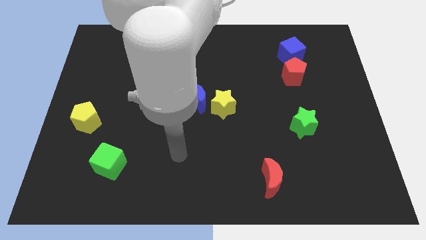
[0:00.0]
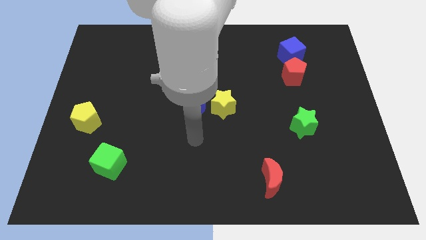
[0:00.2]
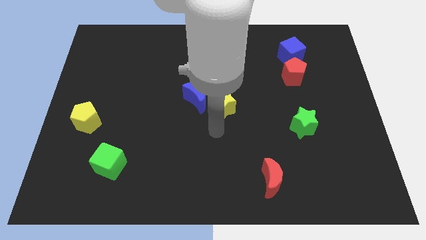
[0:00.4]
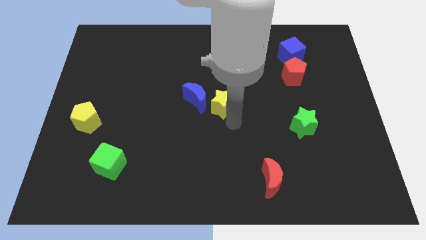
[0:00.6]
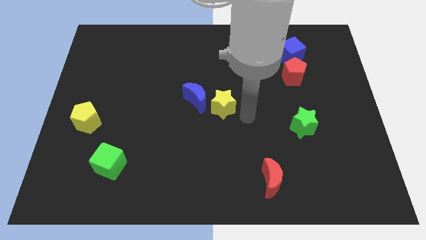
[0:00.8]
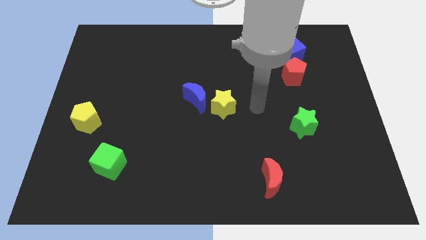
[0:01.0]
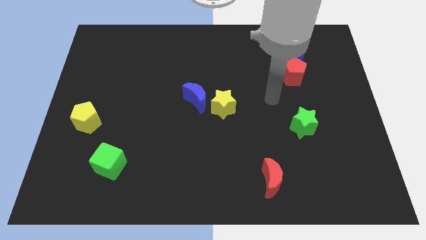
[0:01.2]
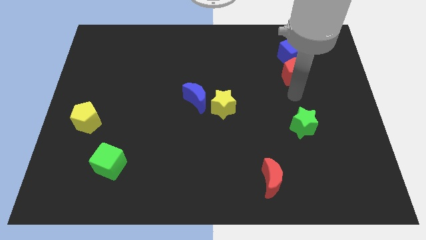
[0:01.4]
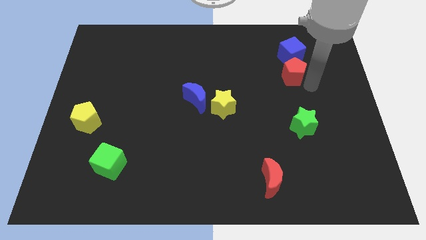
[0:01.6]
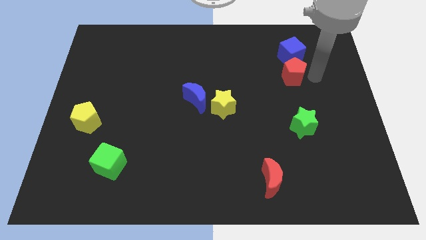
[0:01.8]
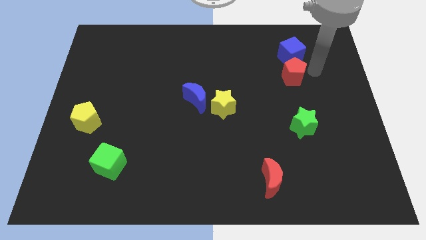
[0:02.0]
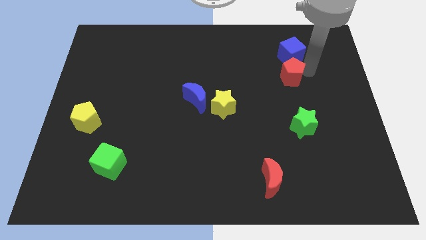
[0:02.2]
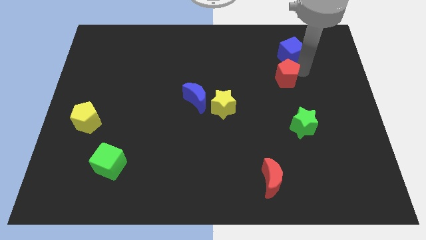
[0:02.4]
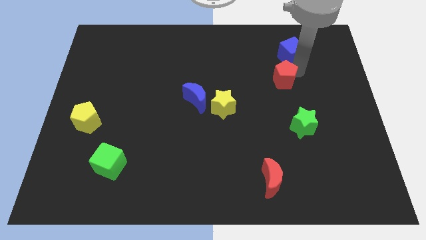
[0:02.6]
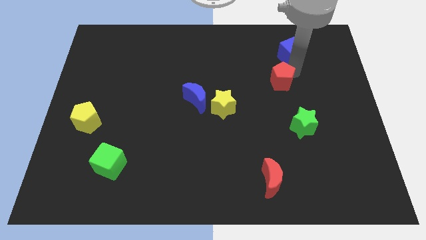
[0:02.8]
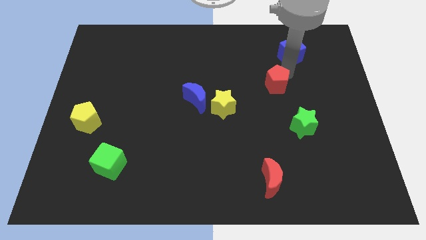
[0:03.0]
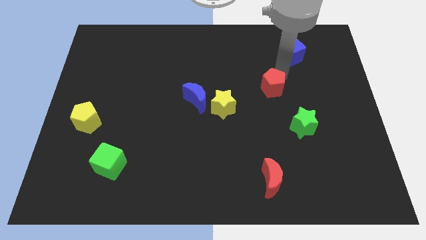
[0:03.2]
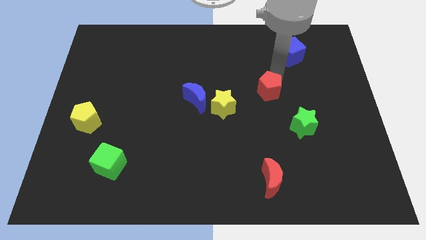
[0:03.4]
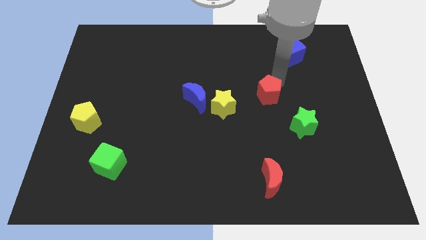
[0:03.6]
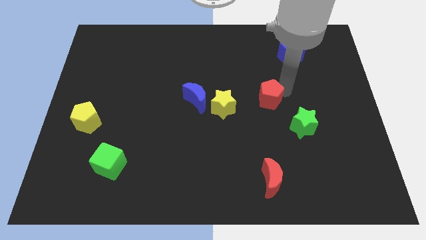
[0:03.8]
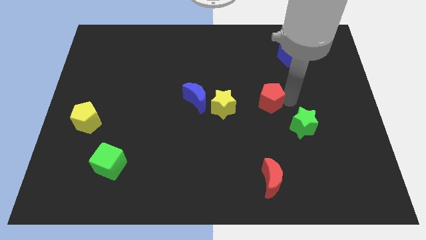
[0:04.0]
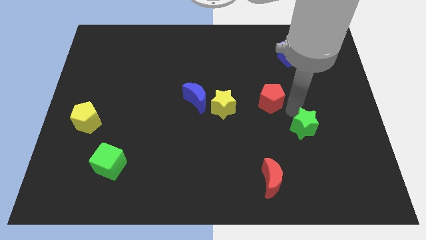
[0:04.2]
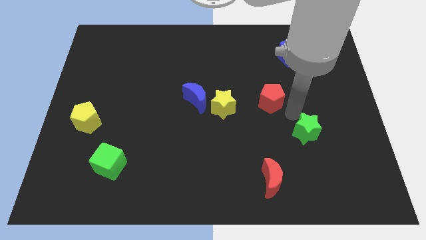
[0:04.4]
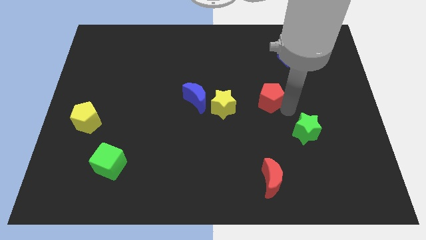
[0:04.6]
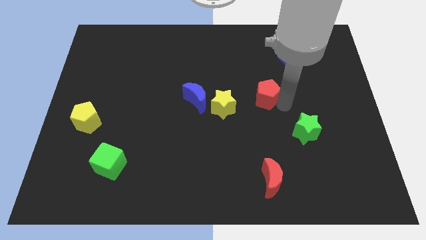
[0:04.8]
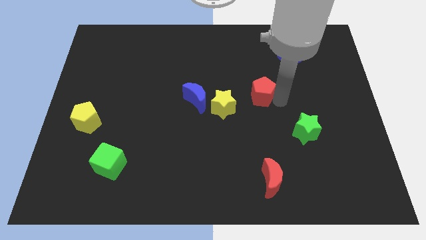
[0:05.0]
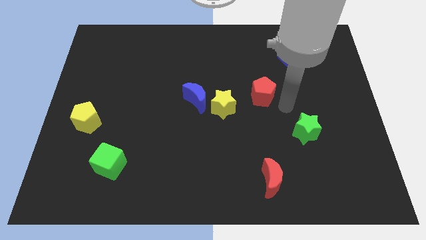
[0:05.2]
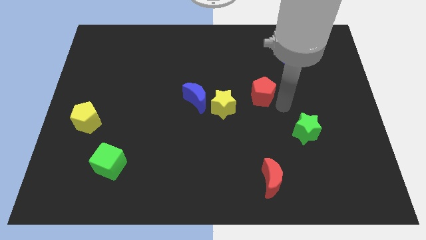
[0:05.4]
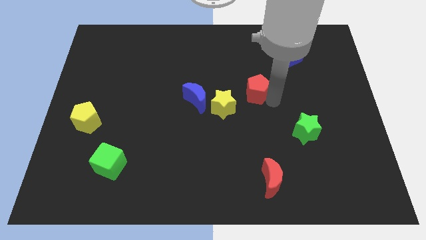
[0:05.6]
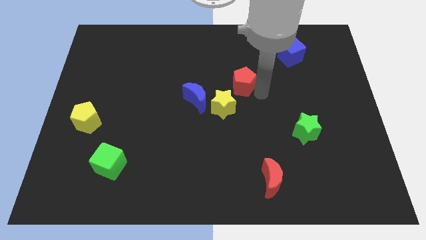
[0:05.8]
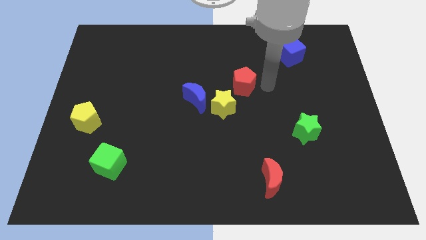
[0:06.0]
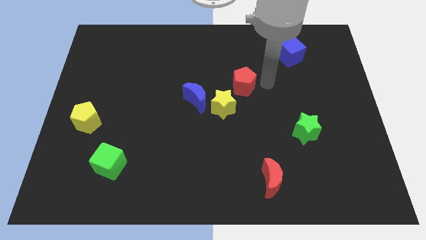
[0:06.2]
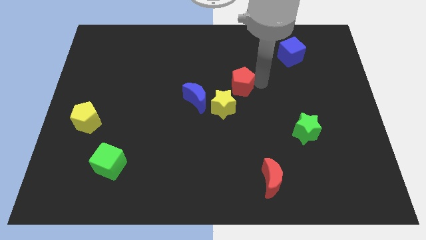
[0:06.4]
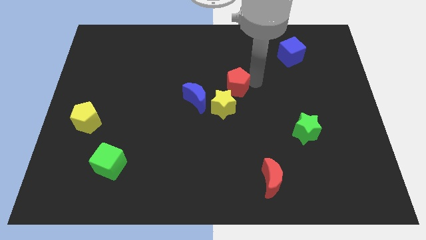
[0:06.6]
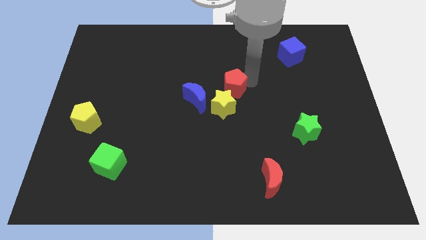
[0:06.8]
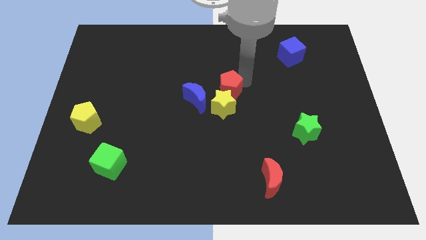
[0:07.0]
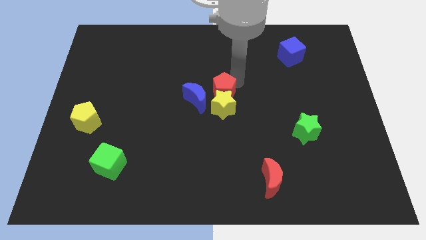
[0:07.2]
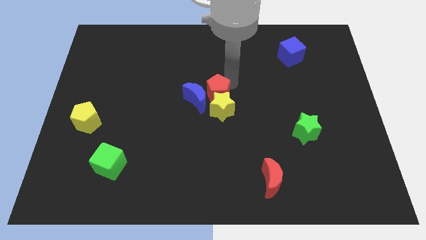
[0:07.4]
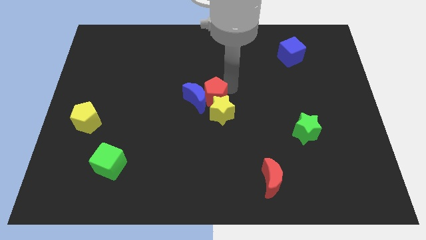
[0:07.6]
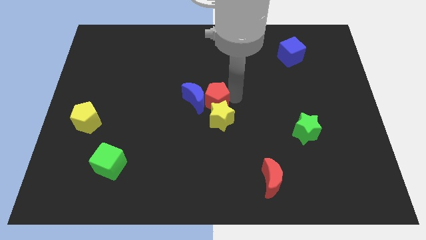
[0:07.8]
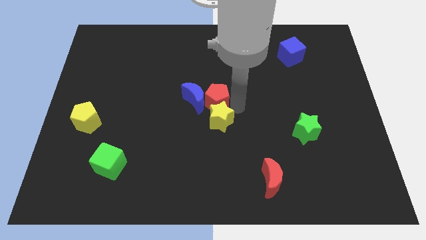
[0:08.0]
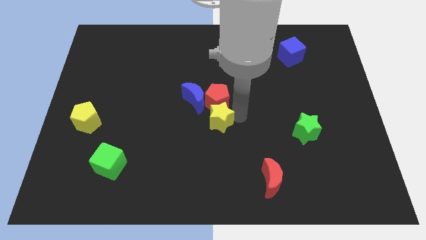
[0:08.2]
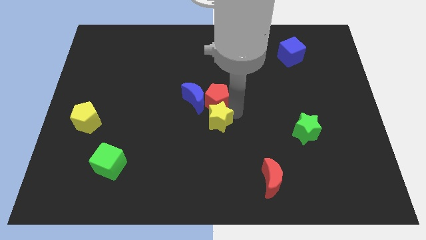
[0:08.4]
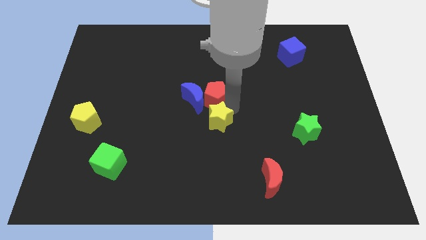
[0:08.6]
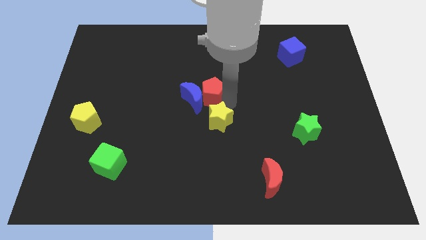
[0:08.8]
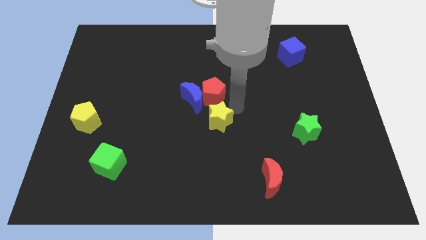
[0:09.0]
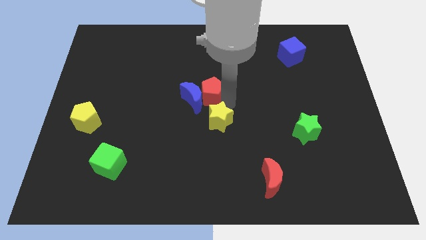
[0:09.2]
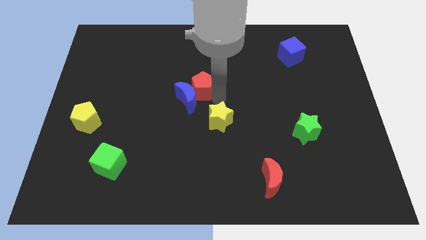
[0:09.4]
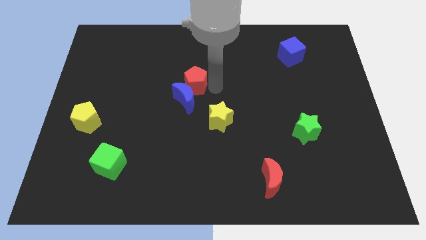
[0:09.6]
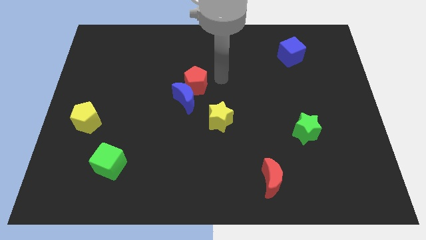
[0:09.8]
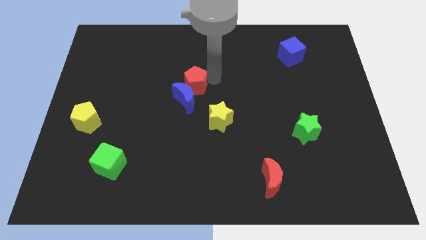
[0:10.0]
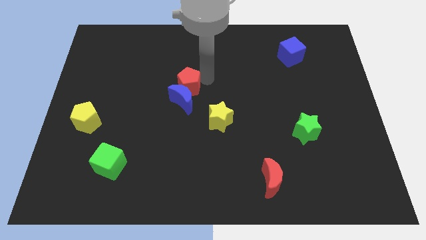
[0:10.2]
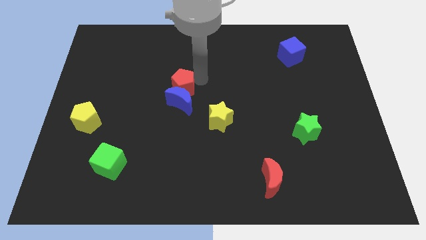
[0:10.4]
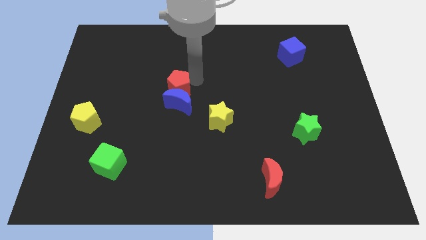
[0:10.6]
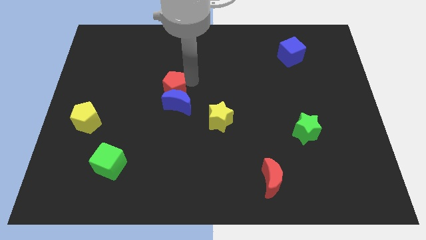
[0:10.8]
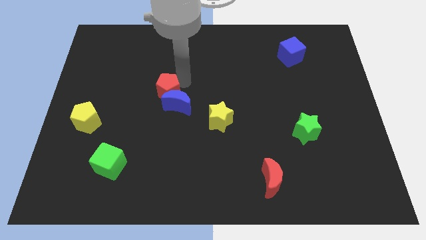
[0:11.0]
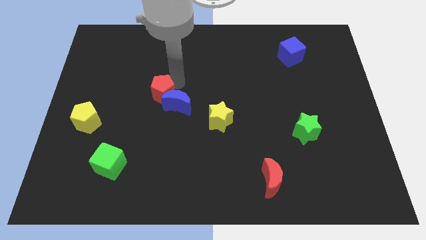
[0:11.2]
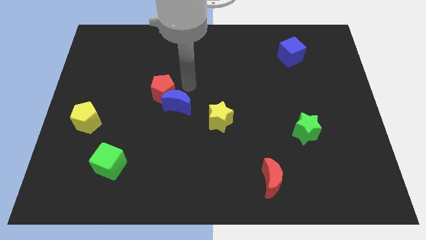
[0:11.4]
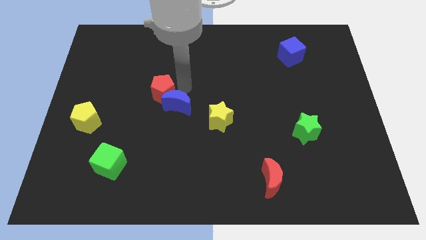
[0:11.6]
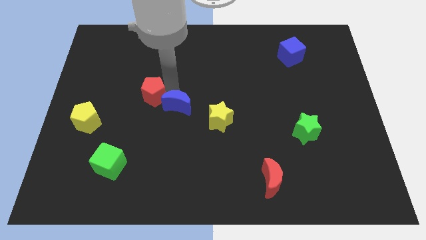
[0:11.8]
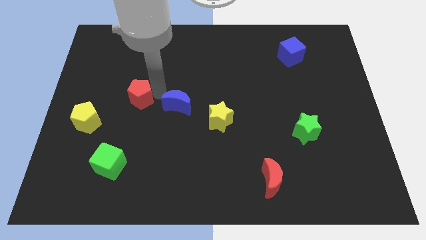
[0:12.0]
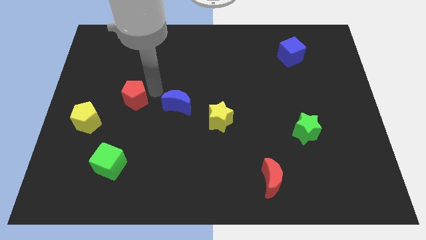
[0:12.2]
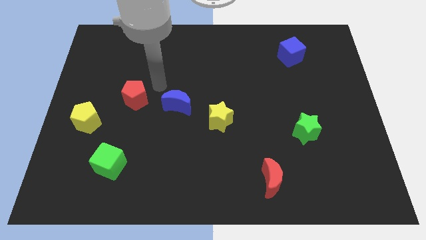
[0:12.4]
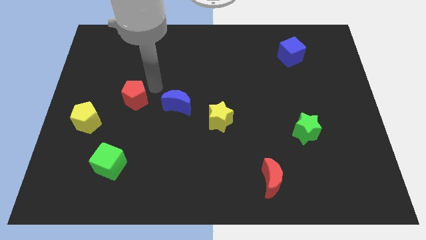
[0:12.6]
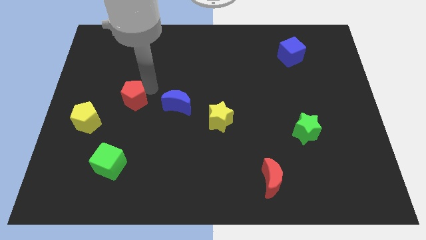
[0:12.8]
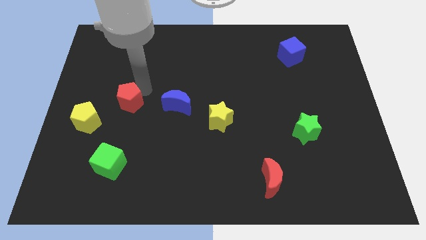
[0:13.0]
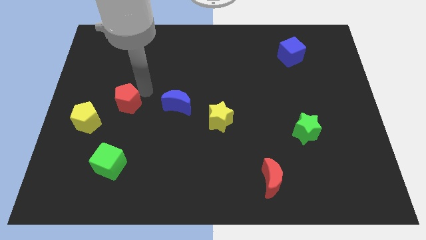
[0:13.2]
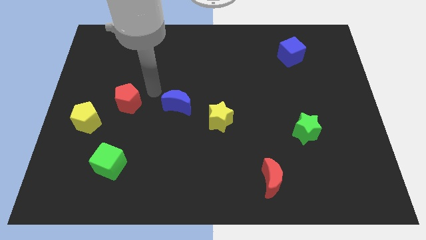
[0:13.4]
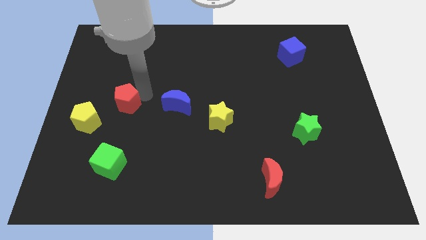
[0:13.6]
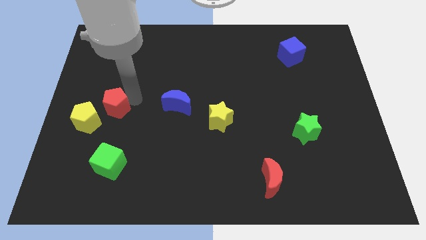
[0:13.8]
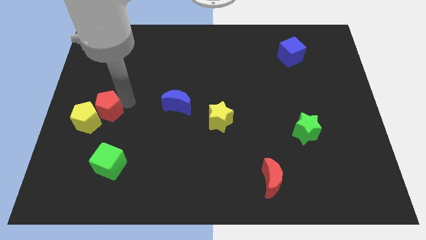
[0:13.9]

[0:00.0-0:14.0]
push the red pentagon close to the yellow pentagon

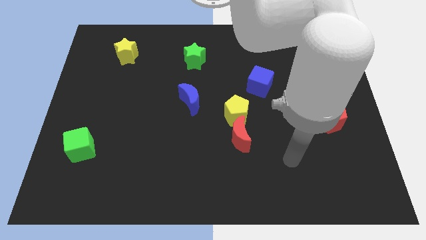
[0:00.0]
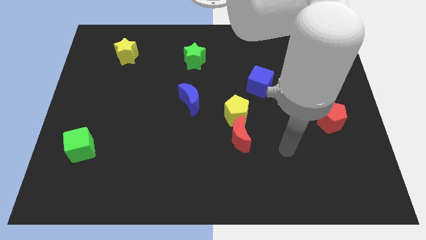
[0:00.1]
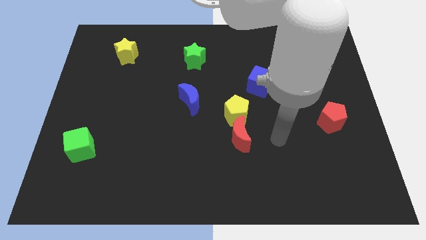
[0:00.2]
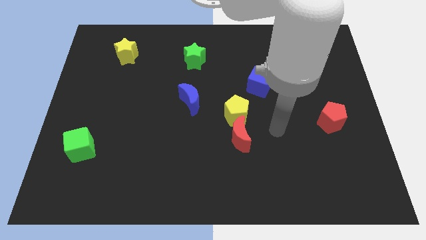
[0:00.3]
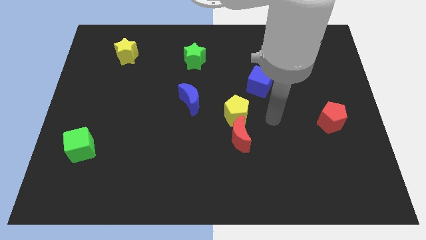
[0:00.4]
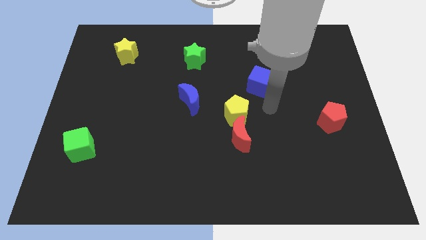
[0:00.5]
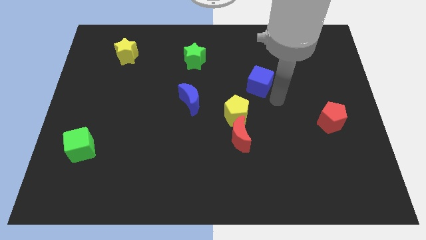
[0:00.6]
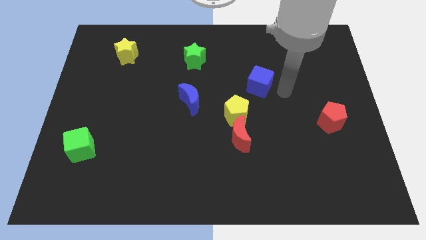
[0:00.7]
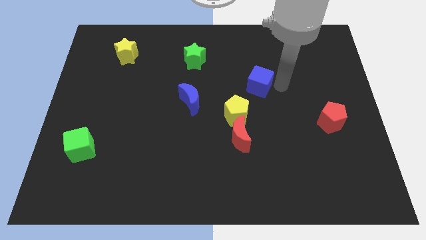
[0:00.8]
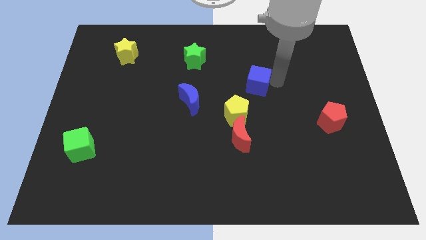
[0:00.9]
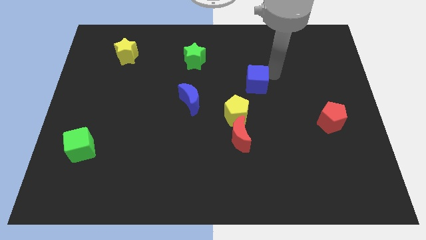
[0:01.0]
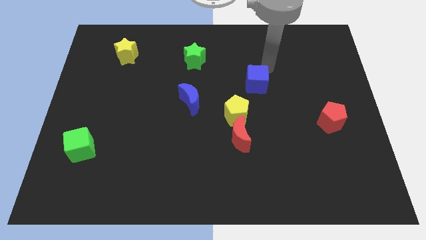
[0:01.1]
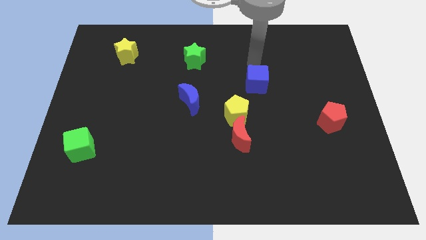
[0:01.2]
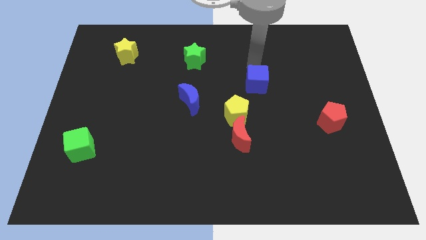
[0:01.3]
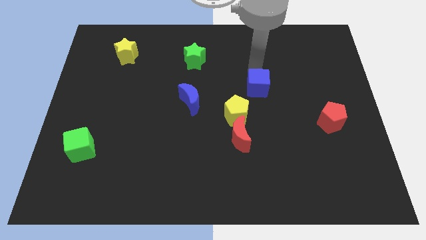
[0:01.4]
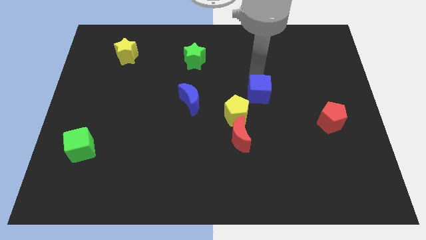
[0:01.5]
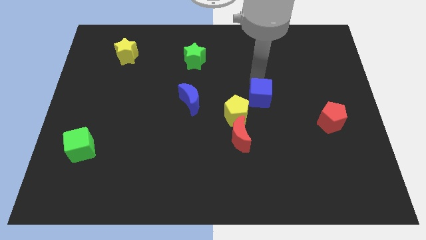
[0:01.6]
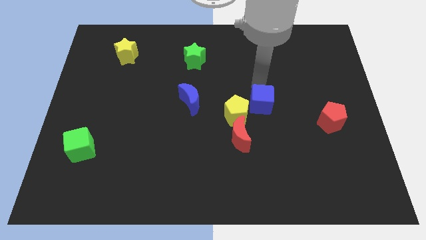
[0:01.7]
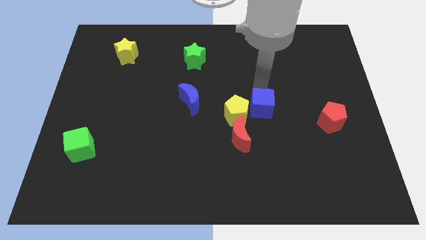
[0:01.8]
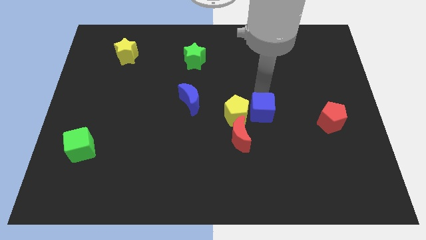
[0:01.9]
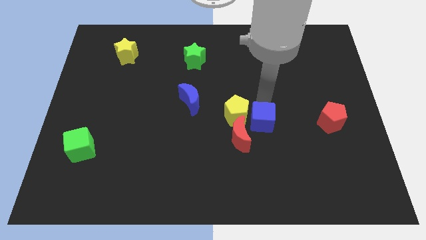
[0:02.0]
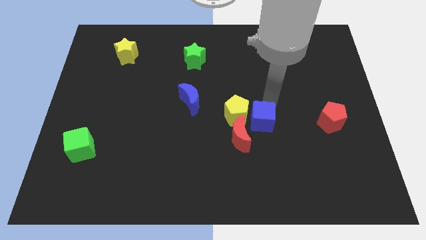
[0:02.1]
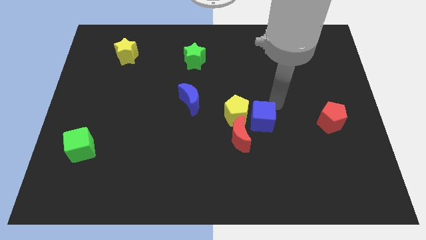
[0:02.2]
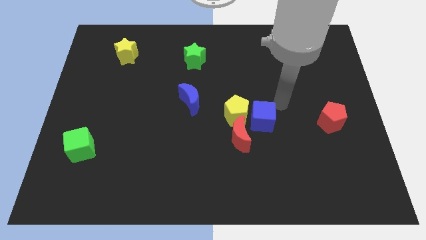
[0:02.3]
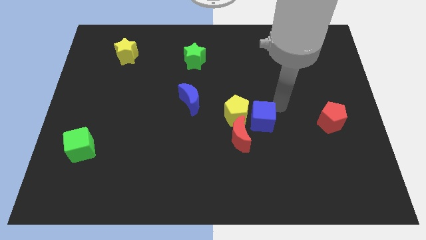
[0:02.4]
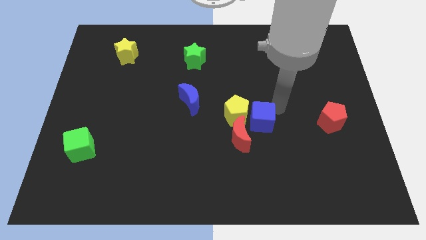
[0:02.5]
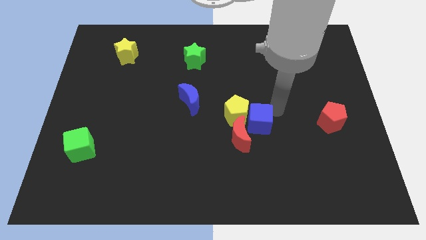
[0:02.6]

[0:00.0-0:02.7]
slide the blue cube to the red moon
